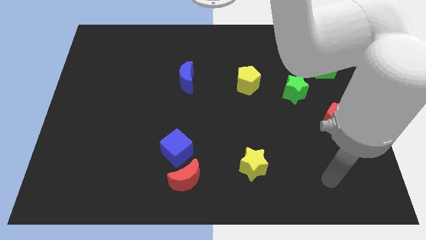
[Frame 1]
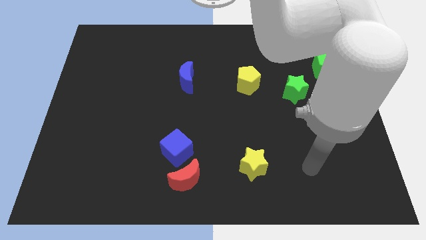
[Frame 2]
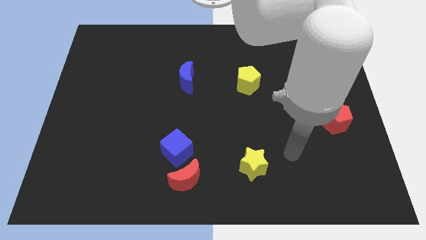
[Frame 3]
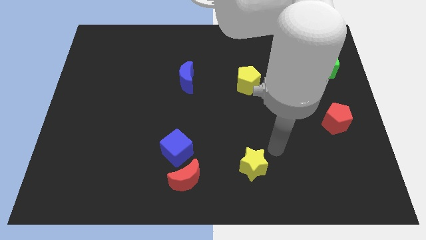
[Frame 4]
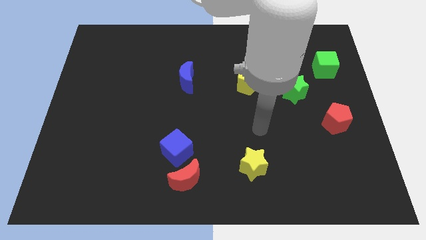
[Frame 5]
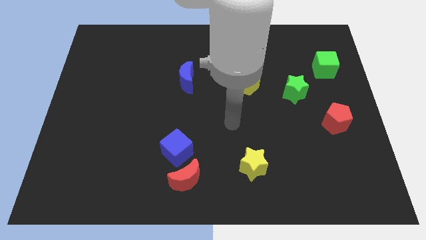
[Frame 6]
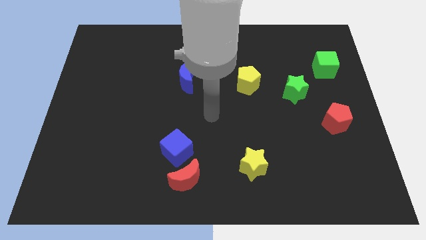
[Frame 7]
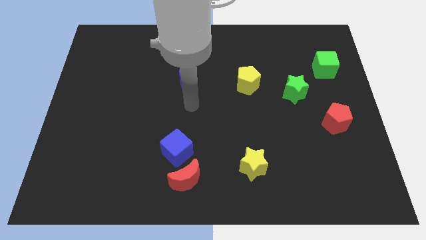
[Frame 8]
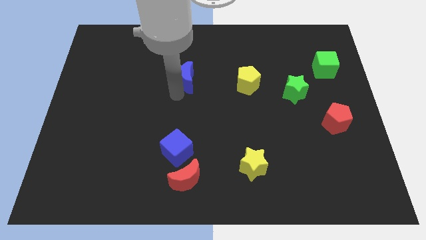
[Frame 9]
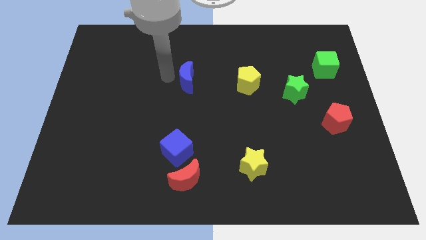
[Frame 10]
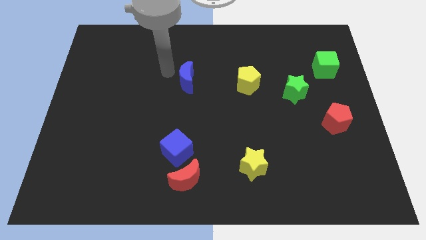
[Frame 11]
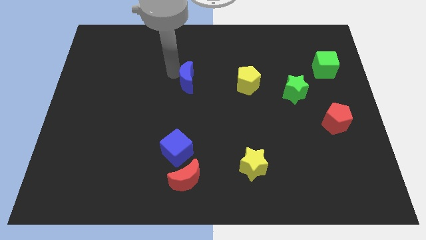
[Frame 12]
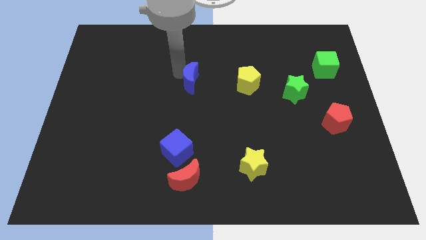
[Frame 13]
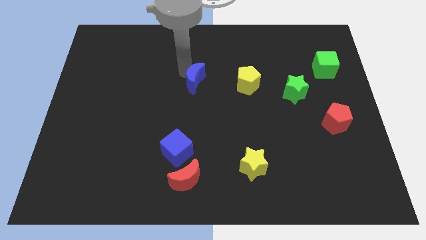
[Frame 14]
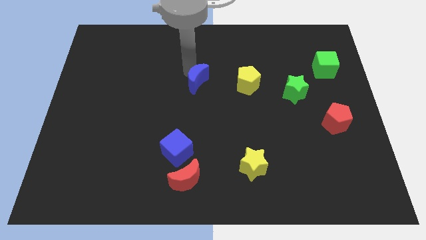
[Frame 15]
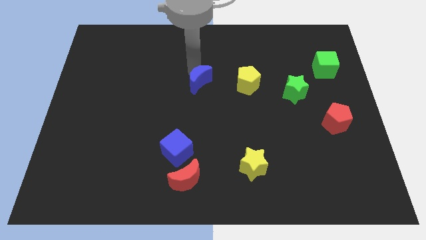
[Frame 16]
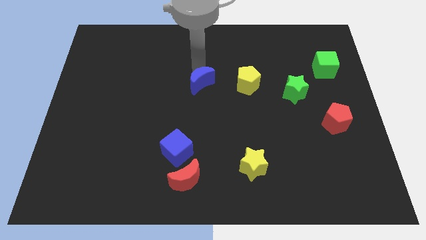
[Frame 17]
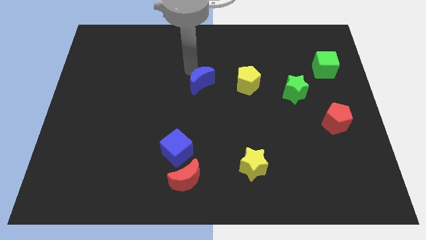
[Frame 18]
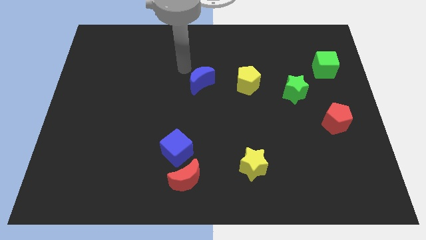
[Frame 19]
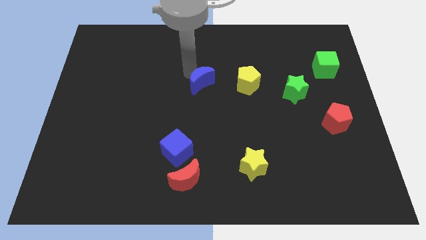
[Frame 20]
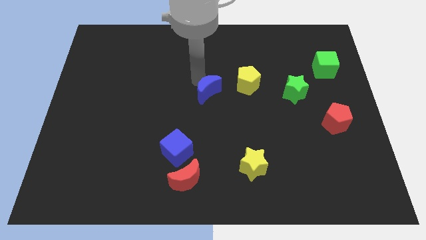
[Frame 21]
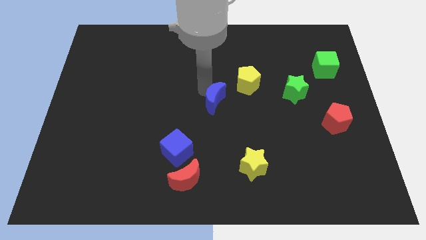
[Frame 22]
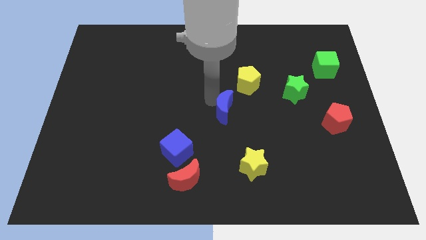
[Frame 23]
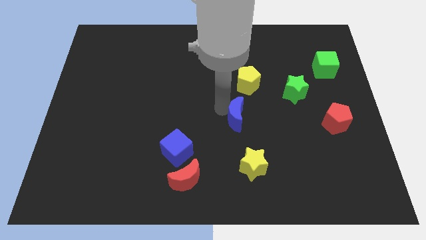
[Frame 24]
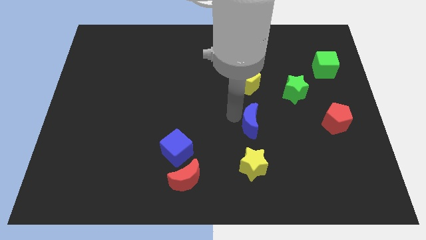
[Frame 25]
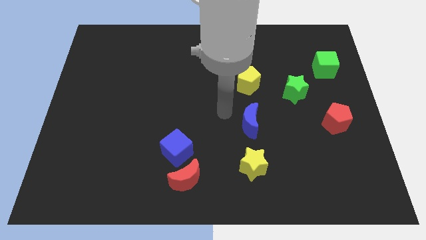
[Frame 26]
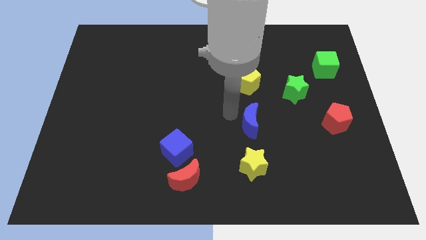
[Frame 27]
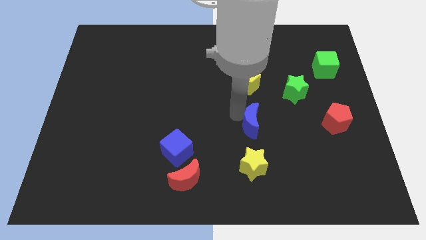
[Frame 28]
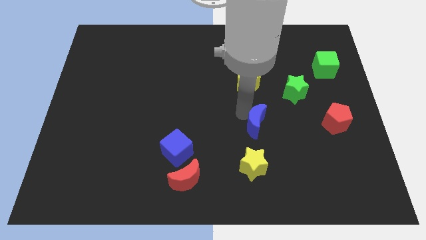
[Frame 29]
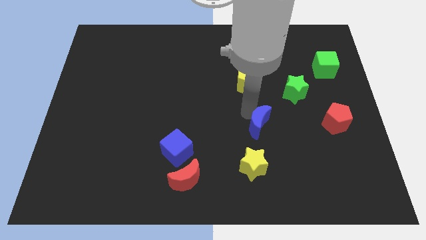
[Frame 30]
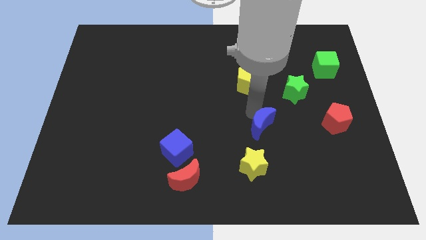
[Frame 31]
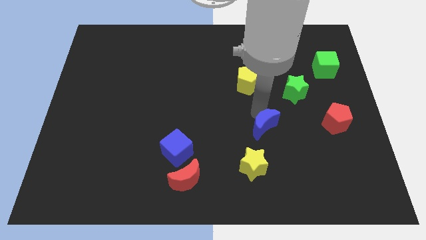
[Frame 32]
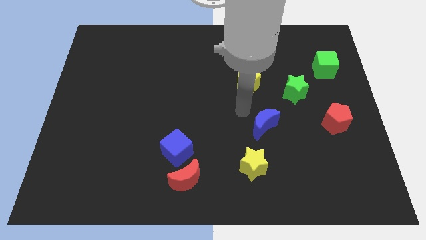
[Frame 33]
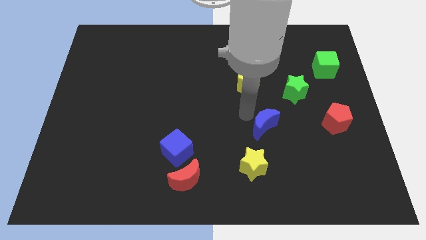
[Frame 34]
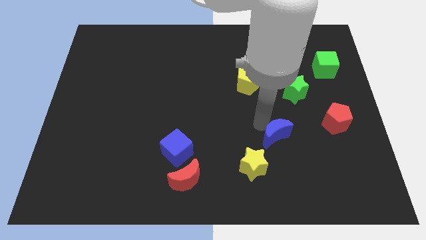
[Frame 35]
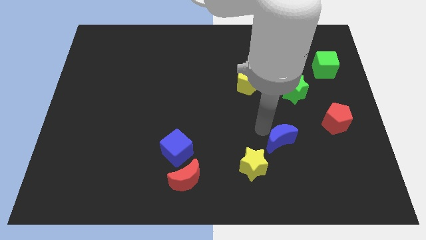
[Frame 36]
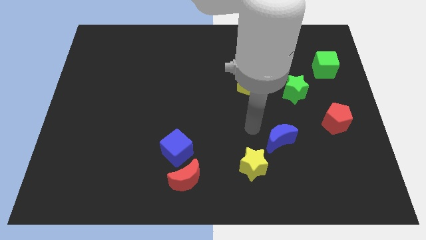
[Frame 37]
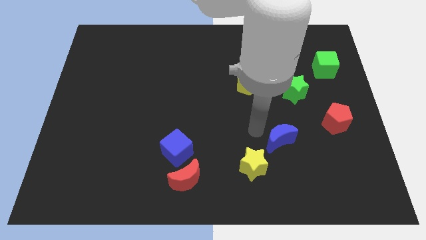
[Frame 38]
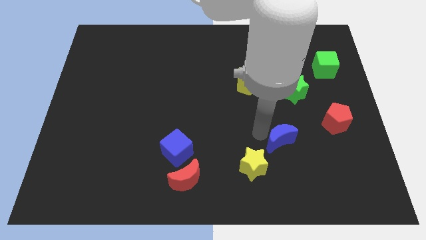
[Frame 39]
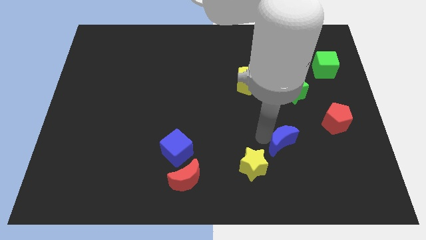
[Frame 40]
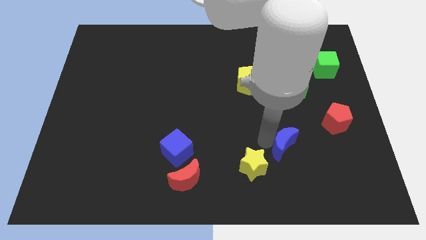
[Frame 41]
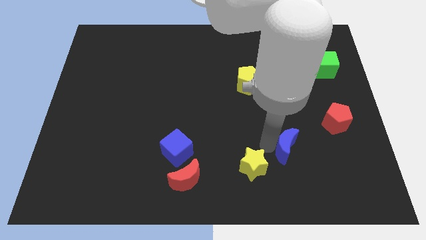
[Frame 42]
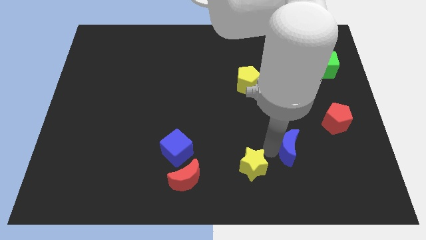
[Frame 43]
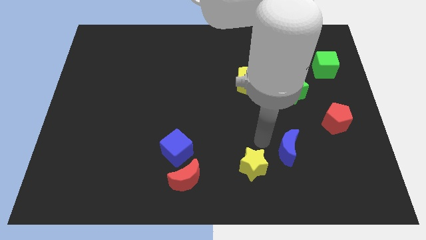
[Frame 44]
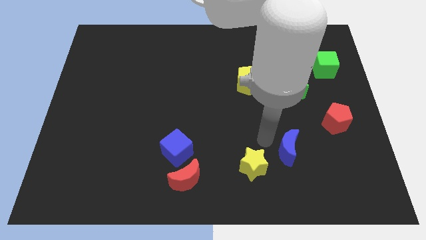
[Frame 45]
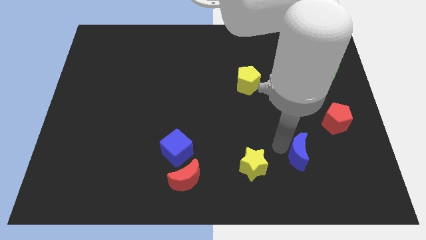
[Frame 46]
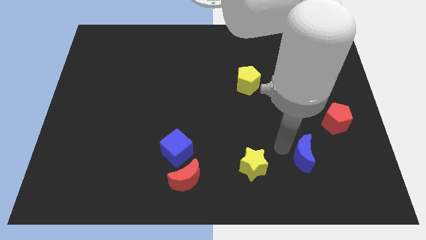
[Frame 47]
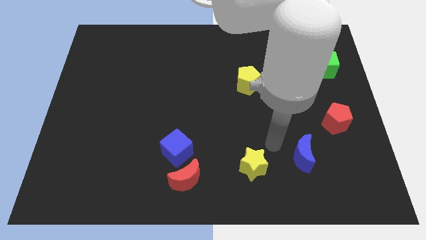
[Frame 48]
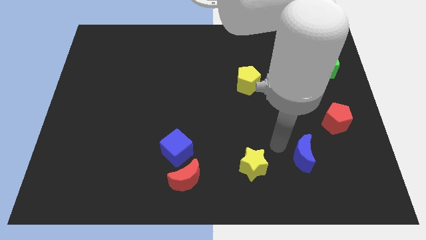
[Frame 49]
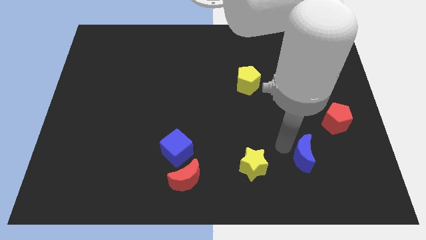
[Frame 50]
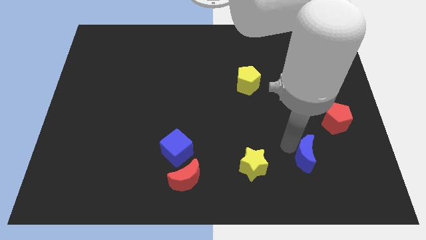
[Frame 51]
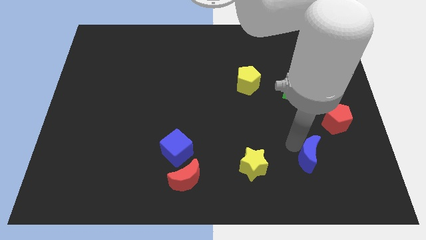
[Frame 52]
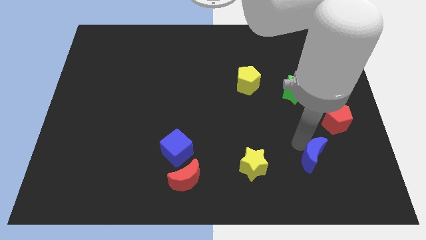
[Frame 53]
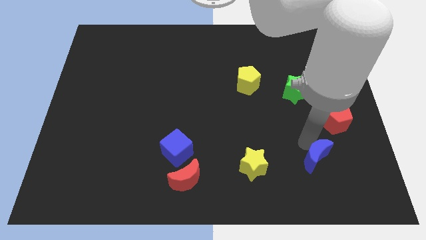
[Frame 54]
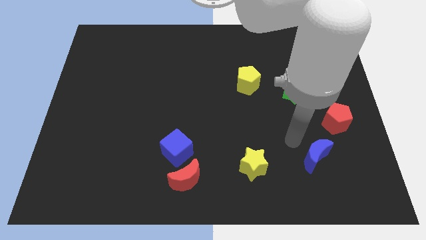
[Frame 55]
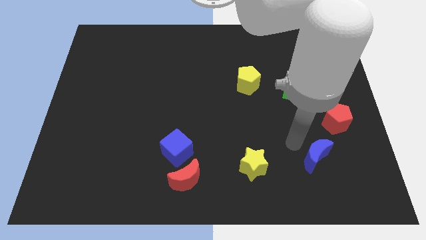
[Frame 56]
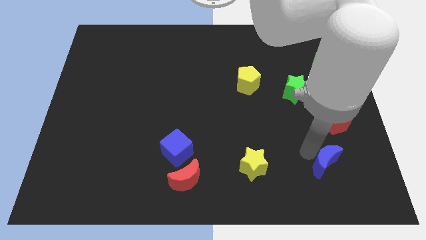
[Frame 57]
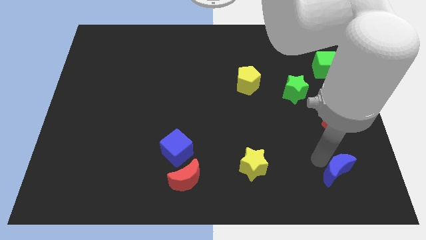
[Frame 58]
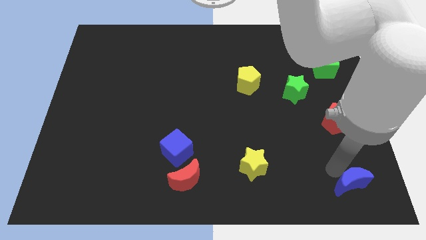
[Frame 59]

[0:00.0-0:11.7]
slide the blue moon to the bottom right of the board

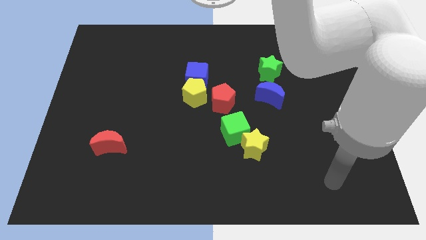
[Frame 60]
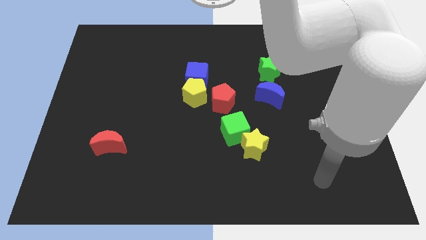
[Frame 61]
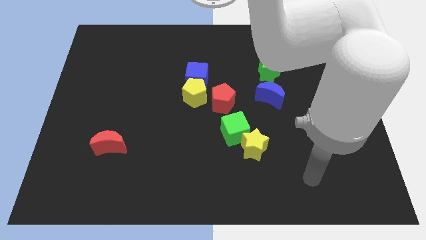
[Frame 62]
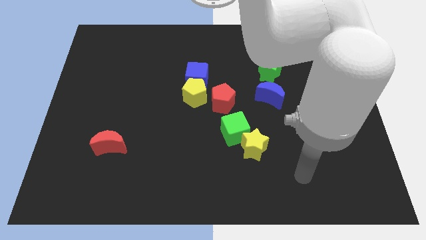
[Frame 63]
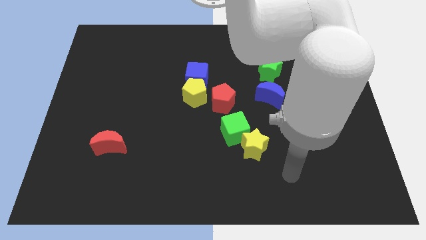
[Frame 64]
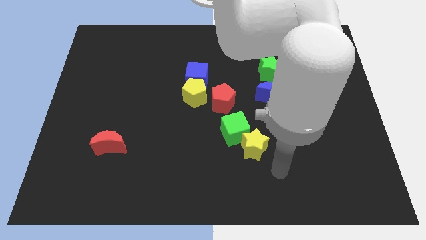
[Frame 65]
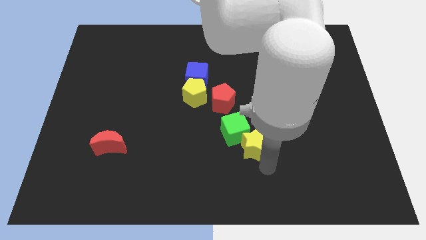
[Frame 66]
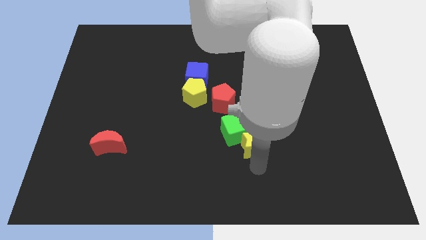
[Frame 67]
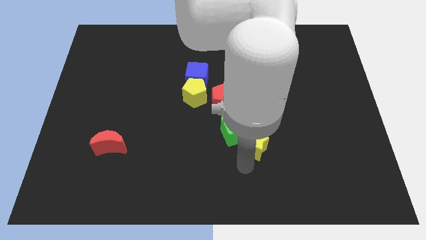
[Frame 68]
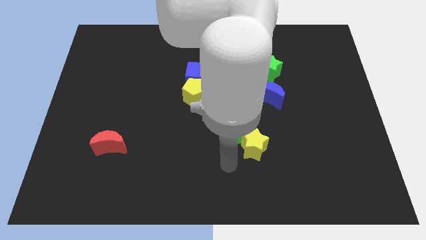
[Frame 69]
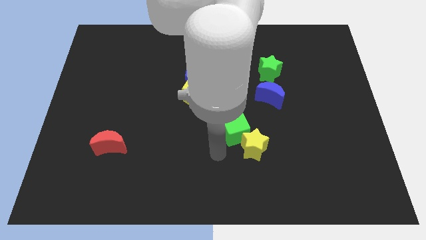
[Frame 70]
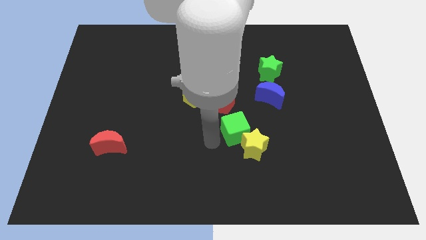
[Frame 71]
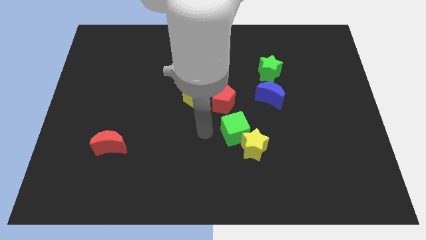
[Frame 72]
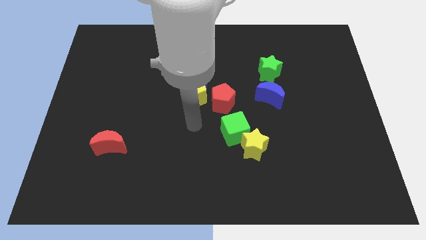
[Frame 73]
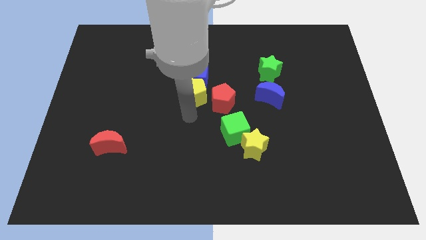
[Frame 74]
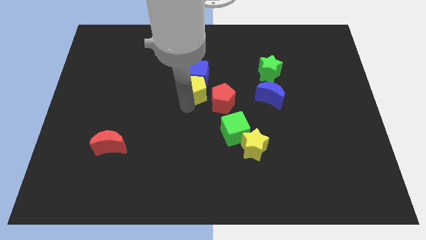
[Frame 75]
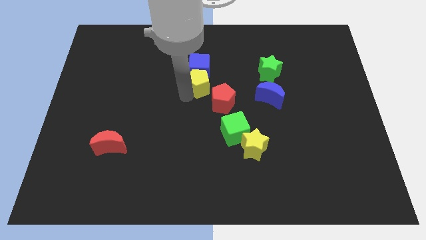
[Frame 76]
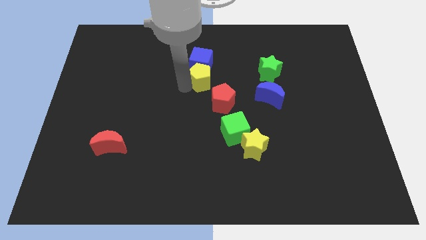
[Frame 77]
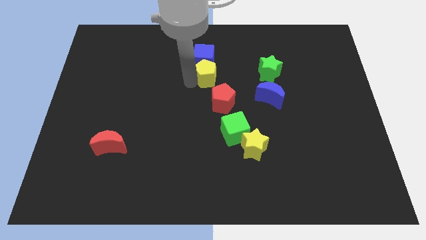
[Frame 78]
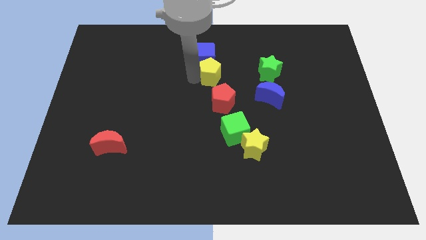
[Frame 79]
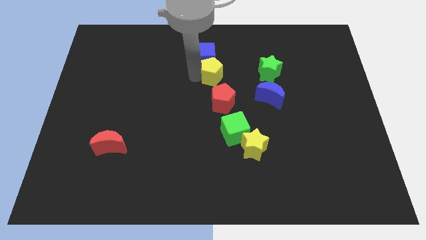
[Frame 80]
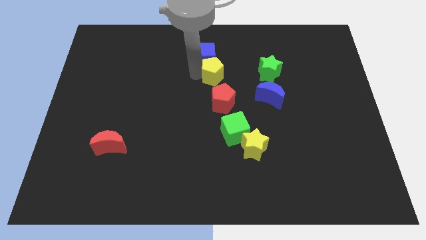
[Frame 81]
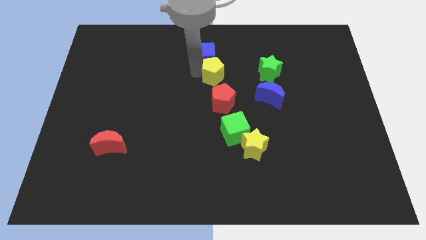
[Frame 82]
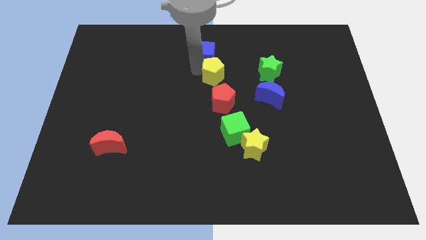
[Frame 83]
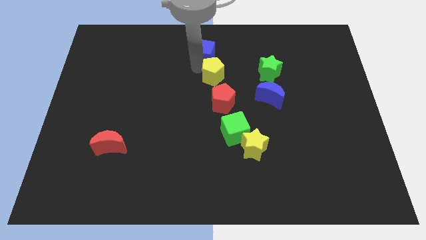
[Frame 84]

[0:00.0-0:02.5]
push the blue cube to the top
